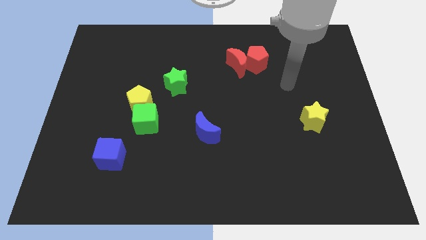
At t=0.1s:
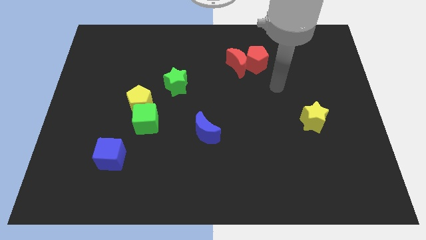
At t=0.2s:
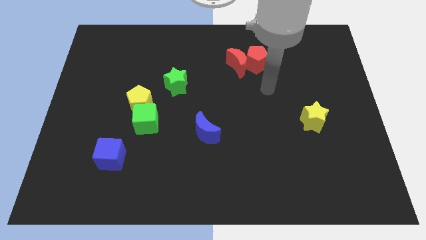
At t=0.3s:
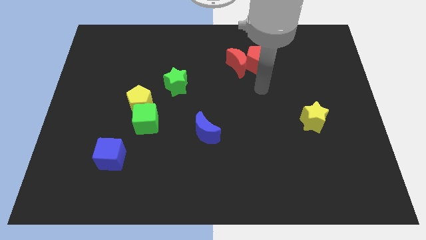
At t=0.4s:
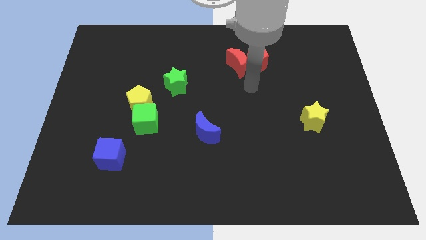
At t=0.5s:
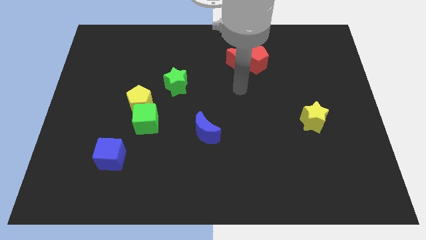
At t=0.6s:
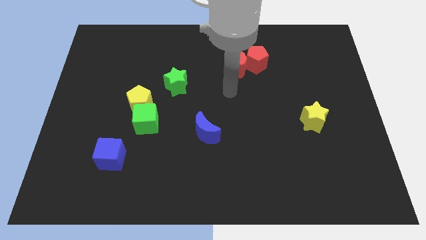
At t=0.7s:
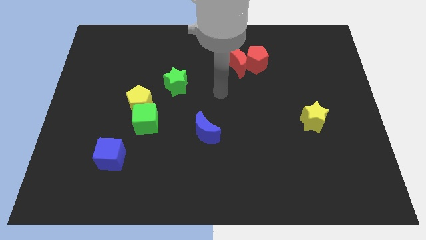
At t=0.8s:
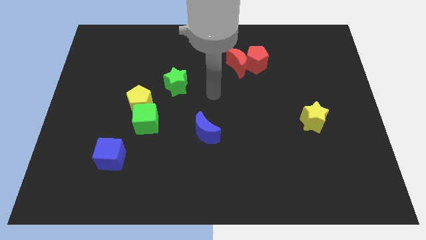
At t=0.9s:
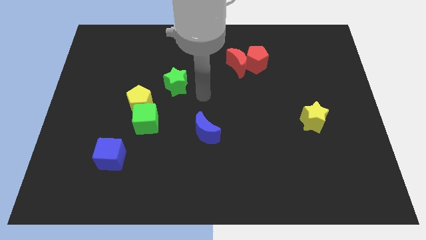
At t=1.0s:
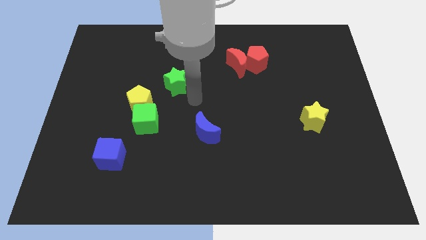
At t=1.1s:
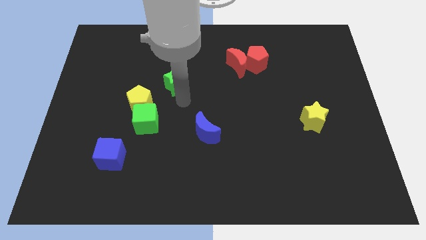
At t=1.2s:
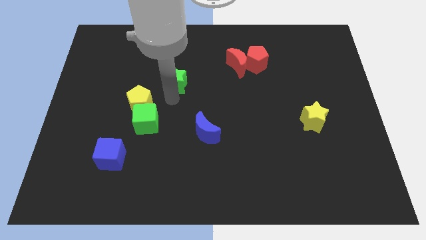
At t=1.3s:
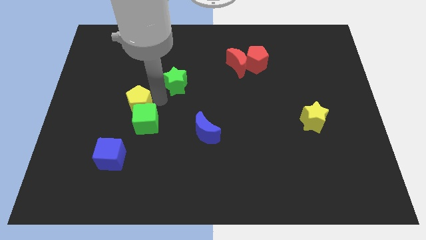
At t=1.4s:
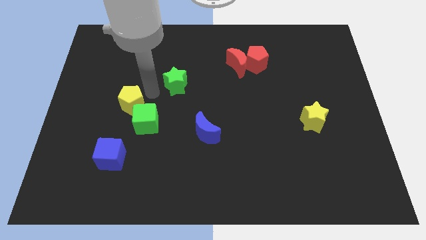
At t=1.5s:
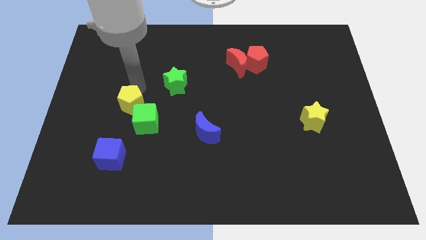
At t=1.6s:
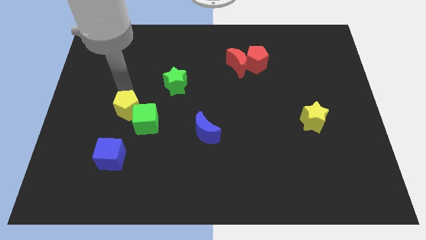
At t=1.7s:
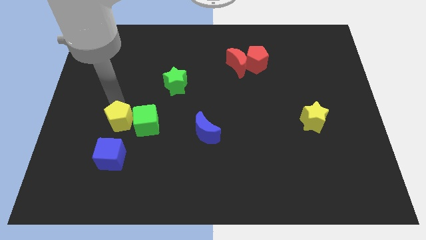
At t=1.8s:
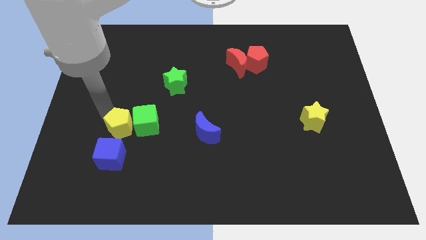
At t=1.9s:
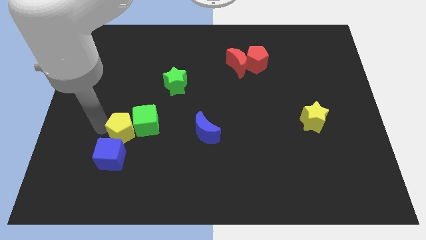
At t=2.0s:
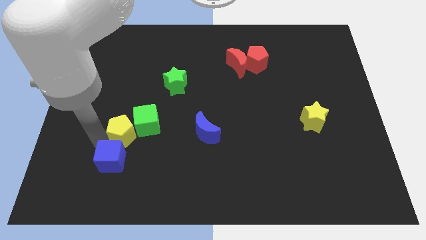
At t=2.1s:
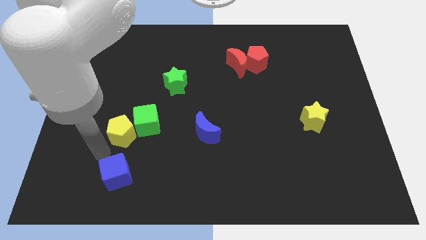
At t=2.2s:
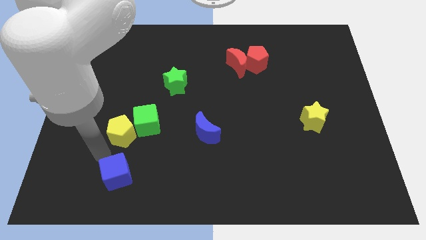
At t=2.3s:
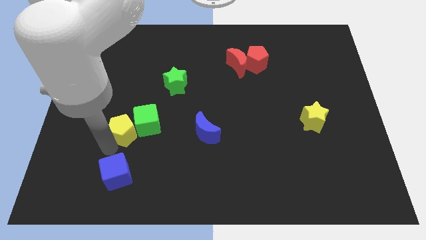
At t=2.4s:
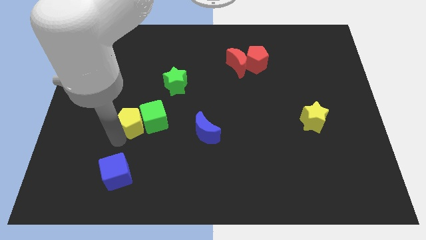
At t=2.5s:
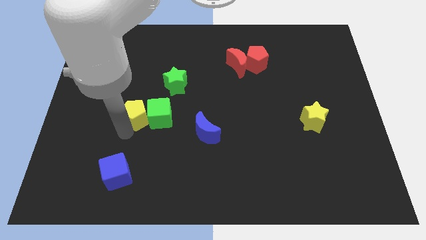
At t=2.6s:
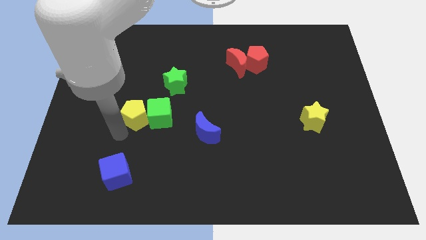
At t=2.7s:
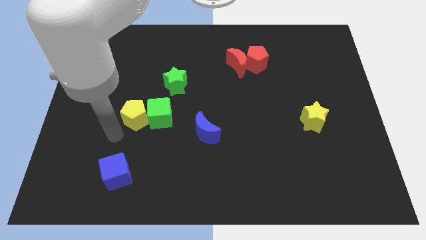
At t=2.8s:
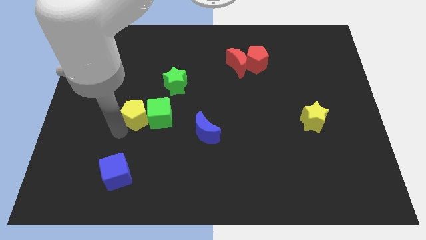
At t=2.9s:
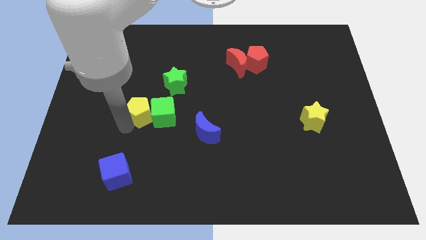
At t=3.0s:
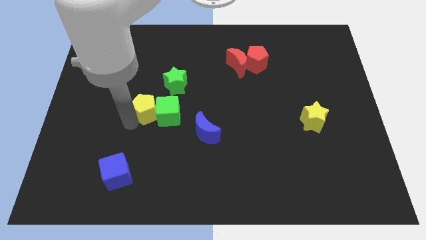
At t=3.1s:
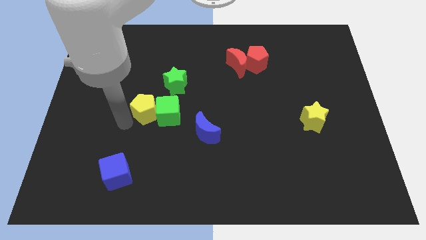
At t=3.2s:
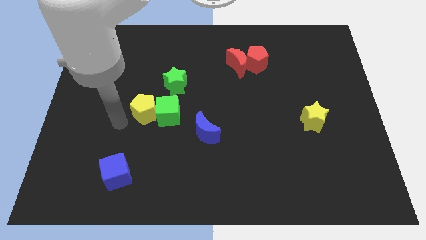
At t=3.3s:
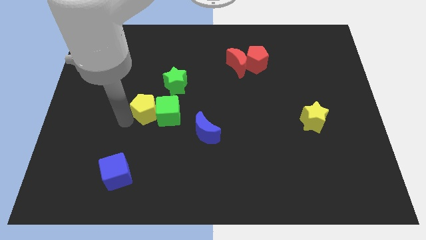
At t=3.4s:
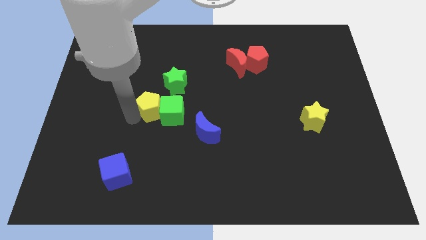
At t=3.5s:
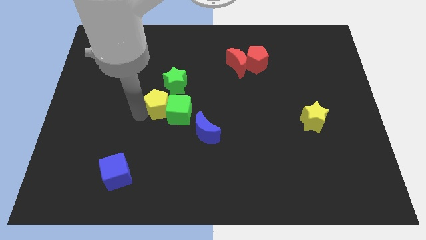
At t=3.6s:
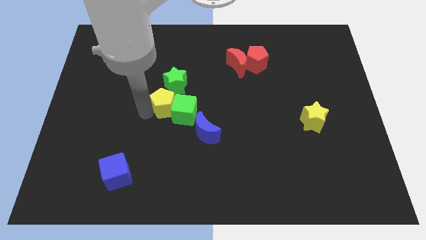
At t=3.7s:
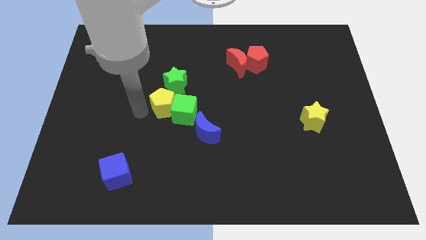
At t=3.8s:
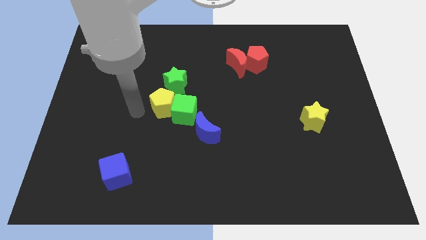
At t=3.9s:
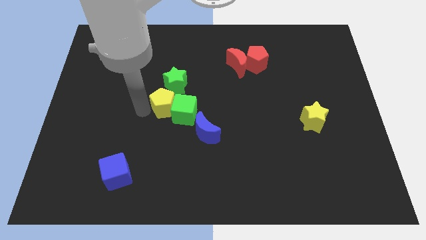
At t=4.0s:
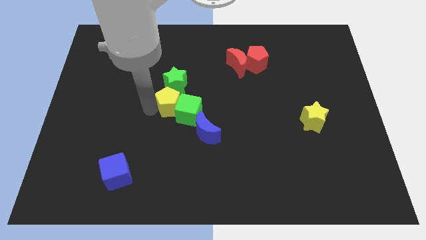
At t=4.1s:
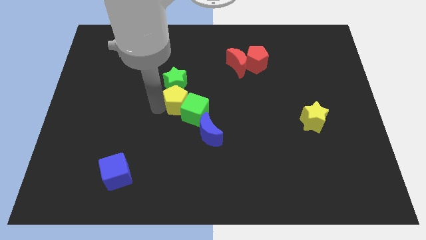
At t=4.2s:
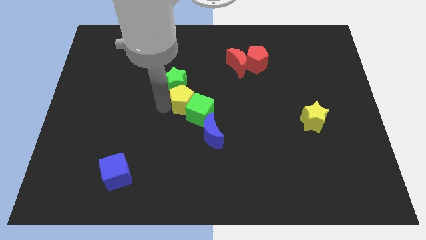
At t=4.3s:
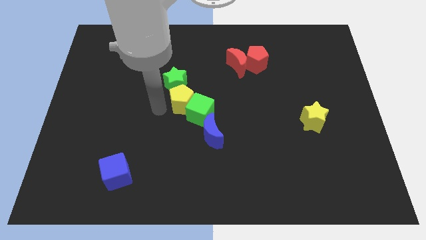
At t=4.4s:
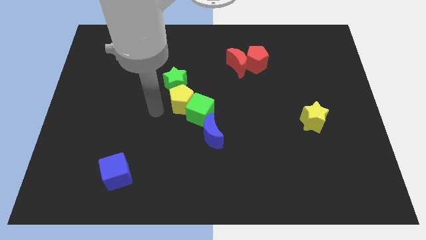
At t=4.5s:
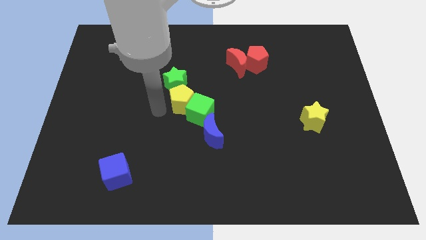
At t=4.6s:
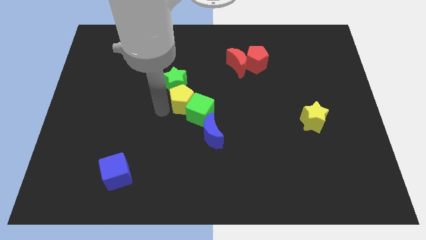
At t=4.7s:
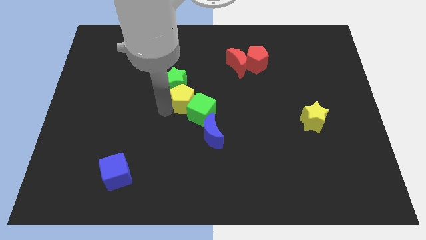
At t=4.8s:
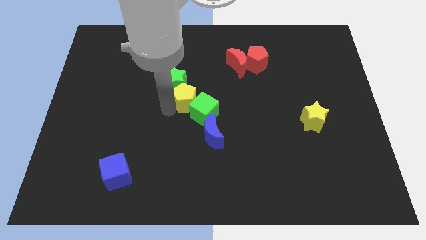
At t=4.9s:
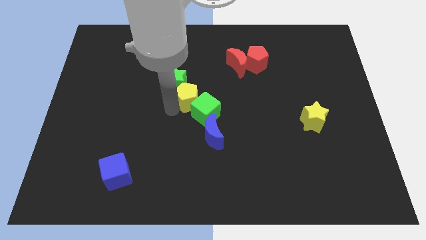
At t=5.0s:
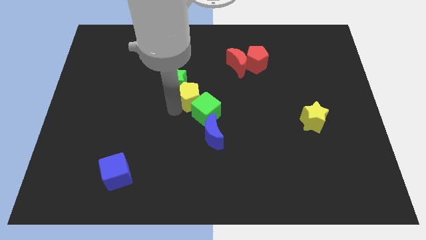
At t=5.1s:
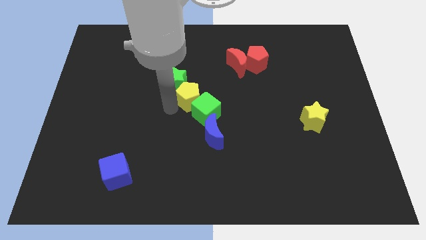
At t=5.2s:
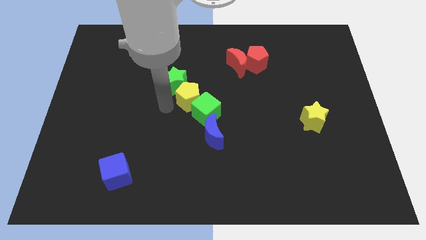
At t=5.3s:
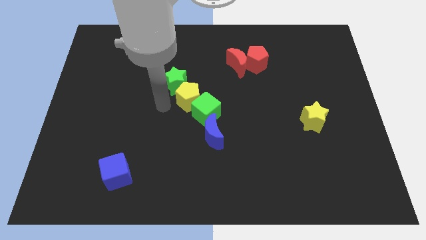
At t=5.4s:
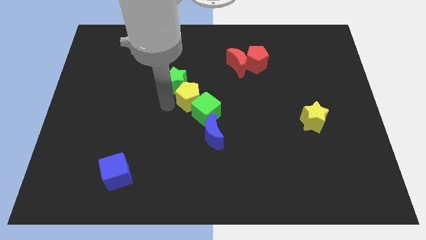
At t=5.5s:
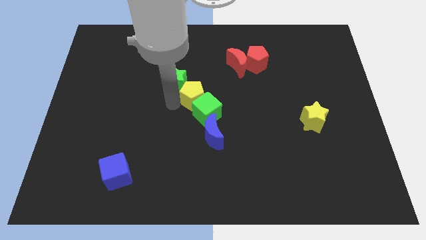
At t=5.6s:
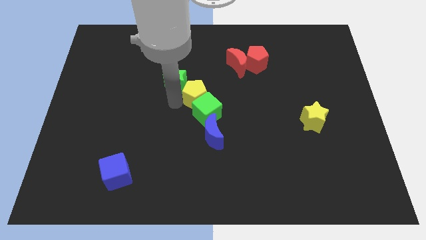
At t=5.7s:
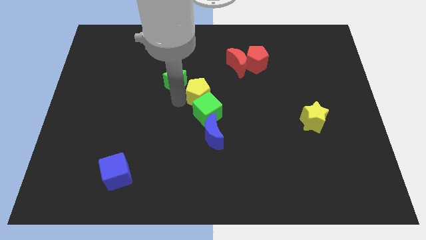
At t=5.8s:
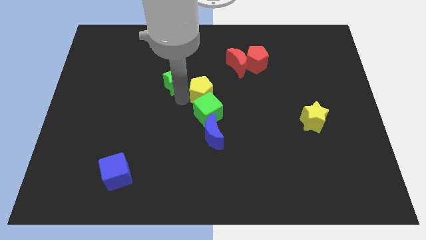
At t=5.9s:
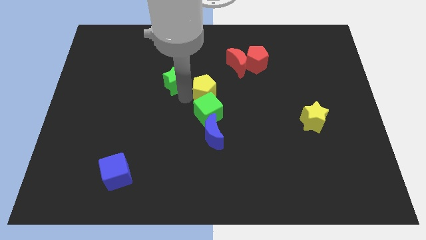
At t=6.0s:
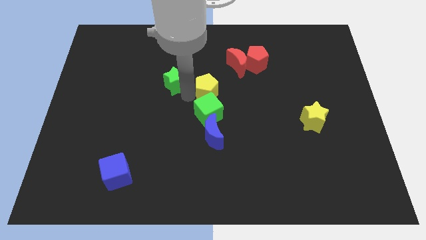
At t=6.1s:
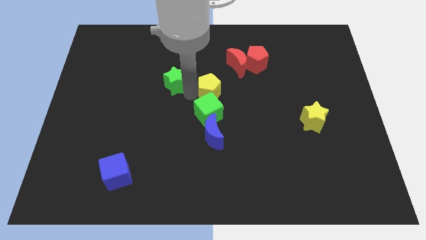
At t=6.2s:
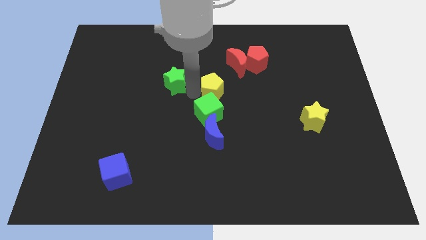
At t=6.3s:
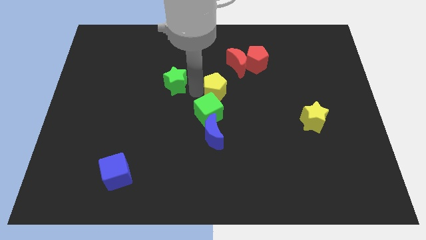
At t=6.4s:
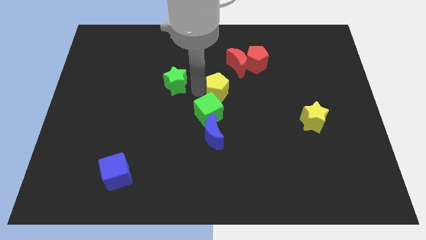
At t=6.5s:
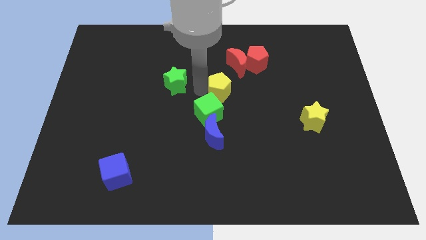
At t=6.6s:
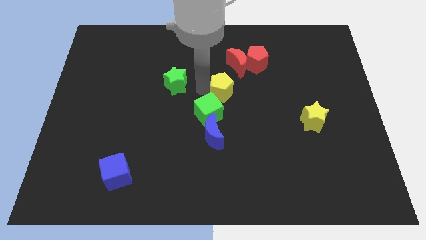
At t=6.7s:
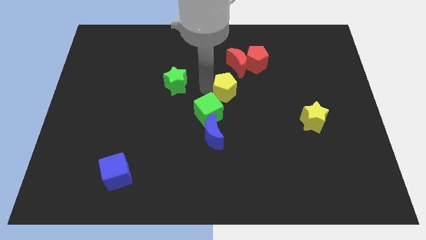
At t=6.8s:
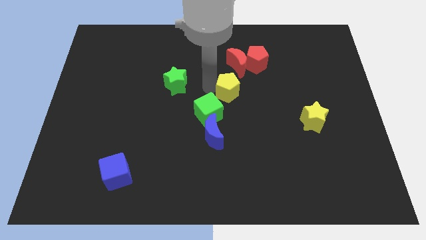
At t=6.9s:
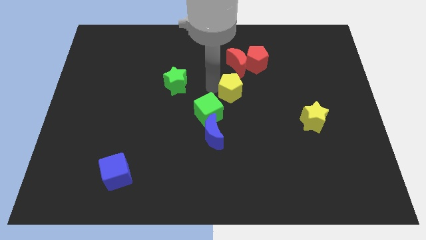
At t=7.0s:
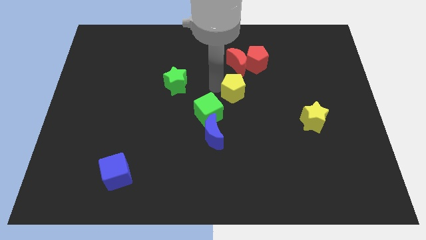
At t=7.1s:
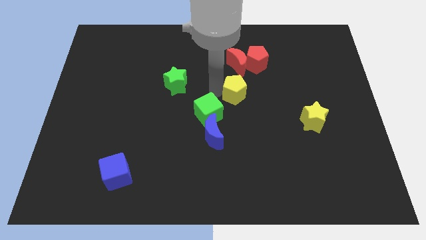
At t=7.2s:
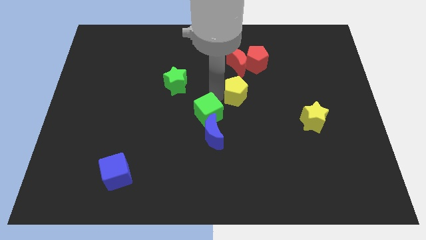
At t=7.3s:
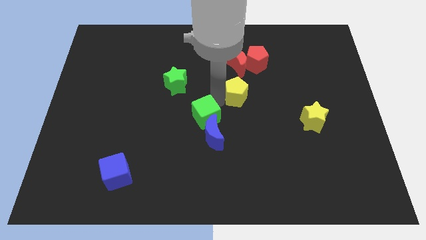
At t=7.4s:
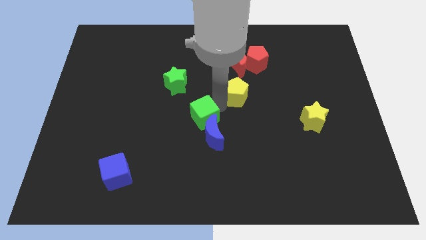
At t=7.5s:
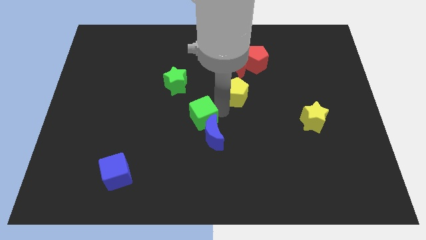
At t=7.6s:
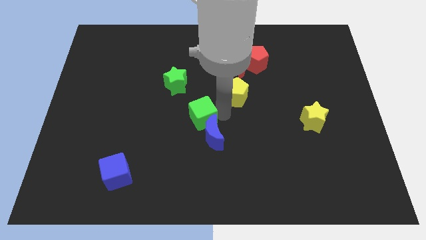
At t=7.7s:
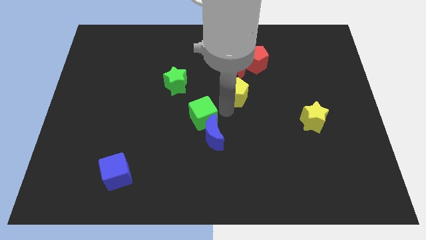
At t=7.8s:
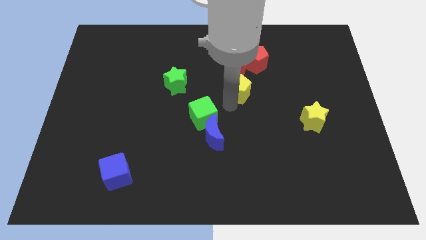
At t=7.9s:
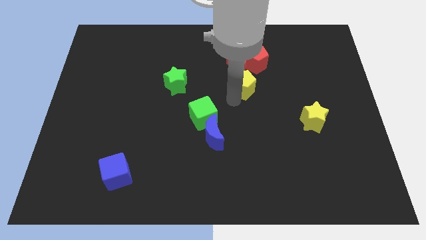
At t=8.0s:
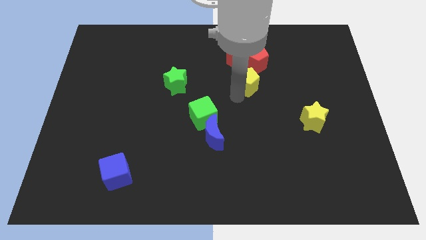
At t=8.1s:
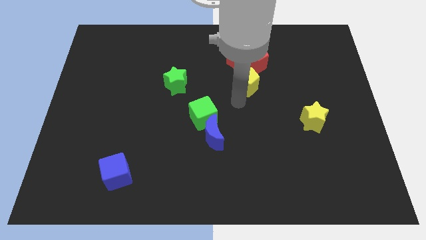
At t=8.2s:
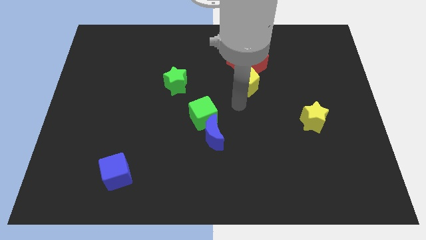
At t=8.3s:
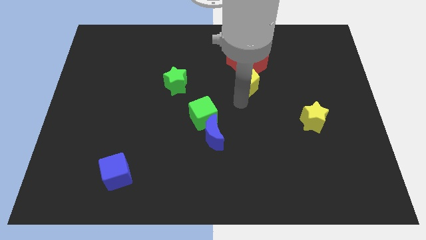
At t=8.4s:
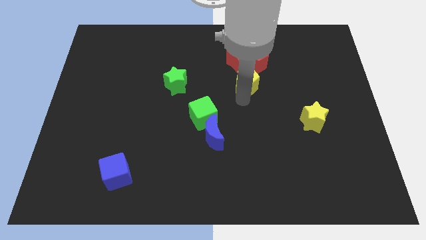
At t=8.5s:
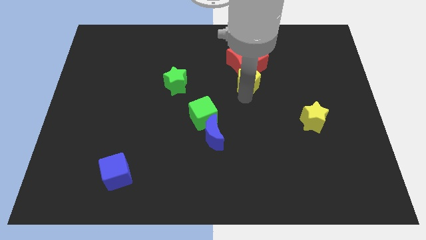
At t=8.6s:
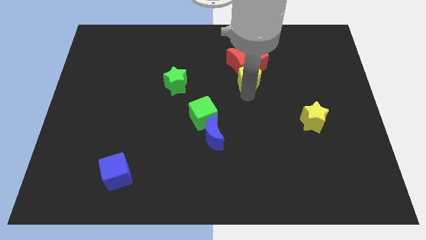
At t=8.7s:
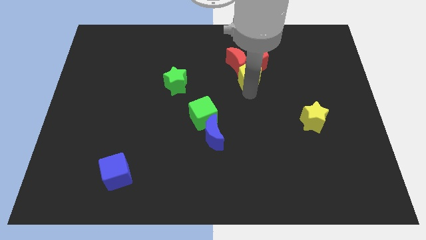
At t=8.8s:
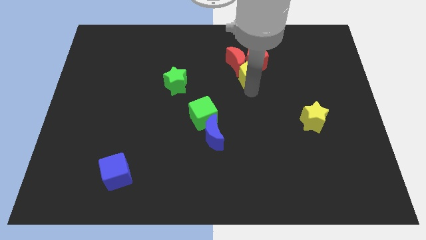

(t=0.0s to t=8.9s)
put the yellow pentagon to the red pentagon
